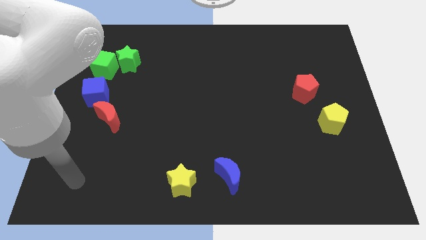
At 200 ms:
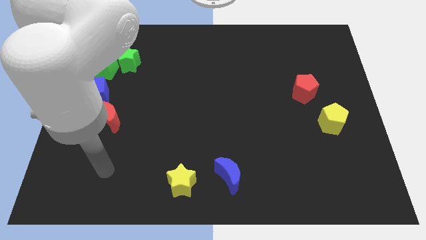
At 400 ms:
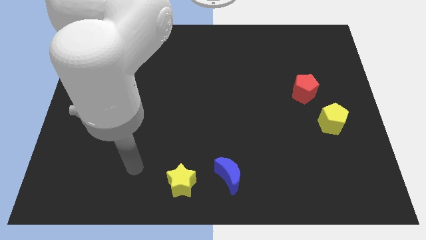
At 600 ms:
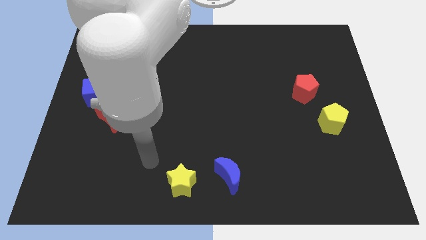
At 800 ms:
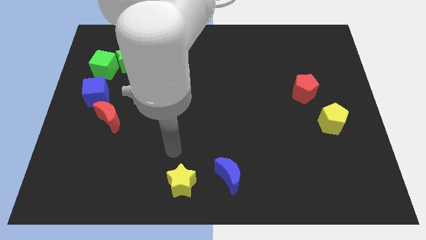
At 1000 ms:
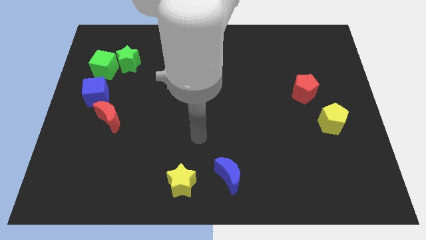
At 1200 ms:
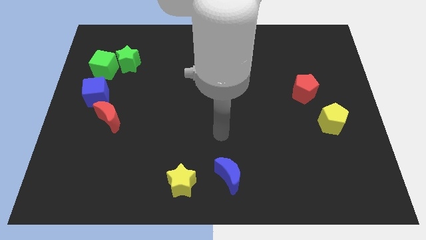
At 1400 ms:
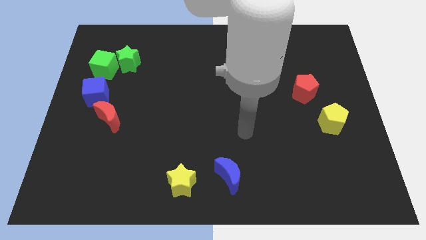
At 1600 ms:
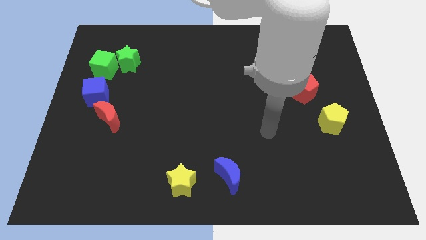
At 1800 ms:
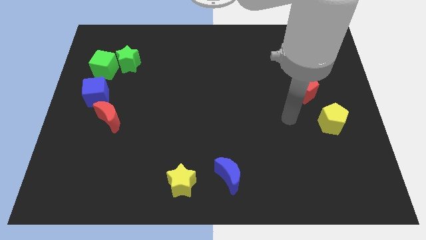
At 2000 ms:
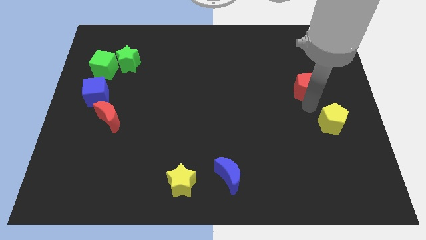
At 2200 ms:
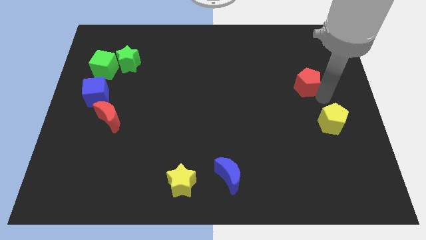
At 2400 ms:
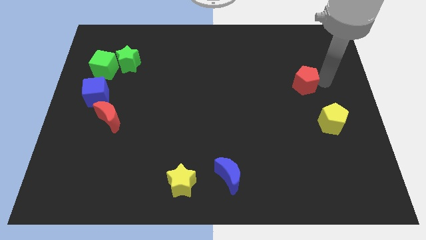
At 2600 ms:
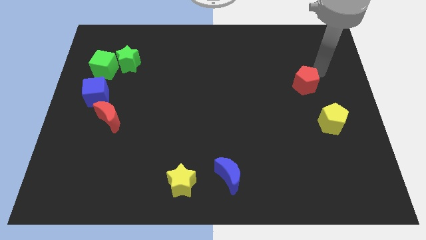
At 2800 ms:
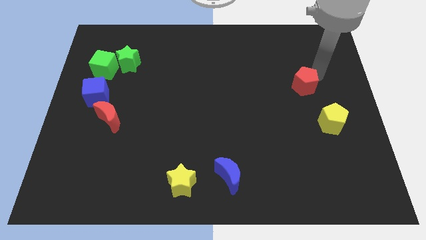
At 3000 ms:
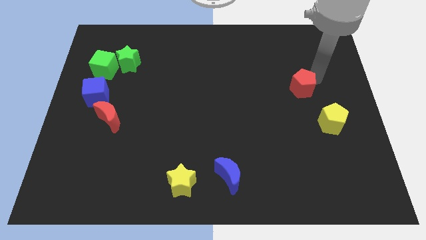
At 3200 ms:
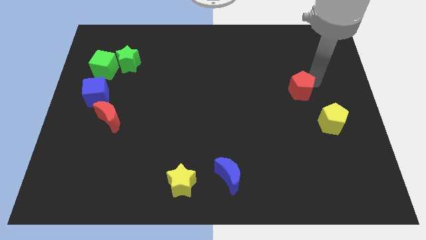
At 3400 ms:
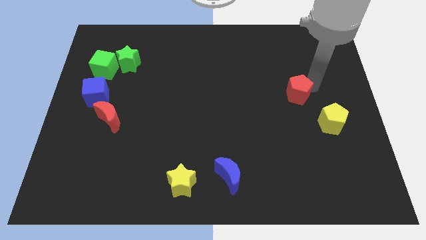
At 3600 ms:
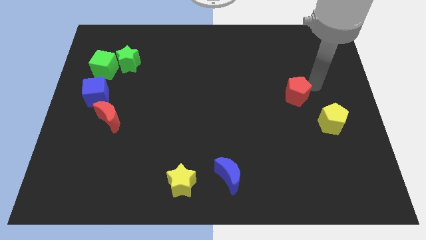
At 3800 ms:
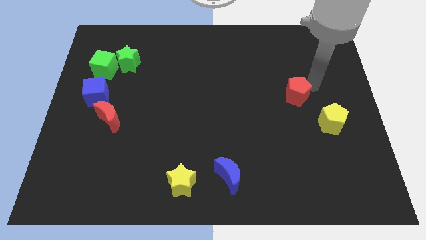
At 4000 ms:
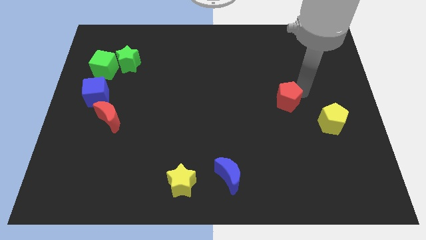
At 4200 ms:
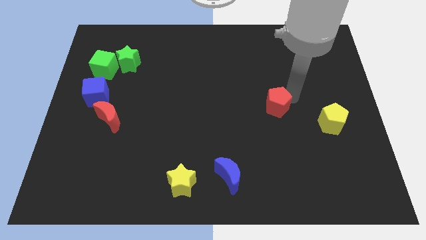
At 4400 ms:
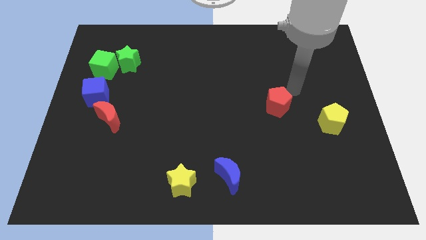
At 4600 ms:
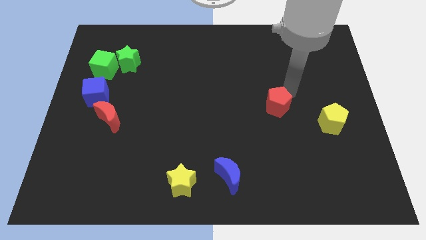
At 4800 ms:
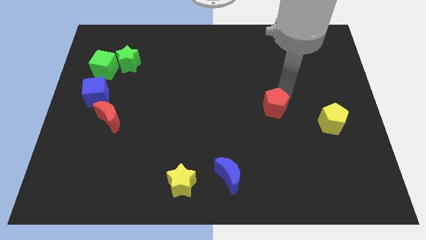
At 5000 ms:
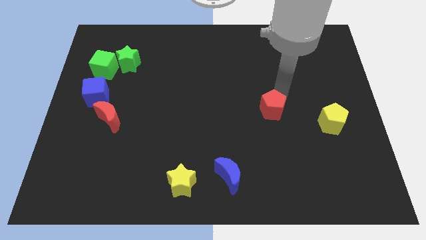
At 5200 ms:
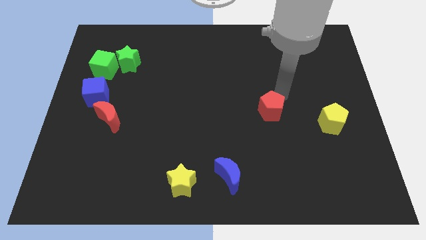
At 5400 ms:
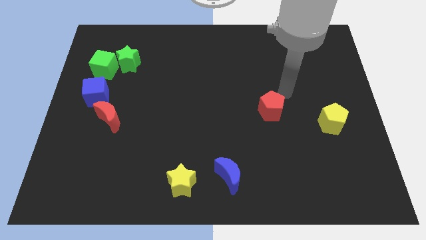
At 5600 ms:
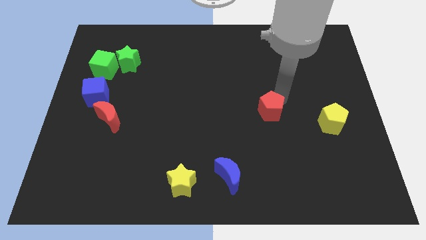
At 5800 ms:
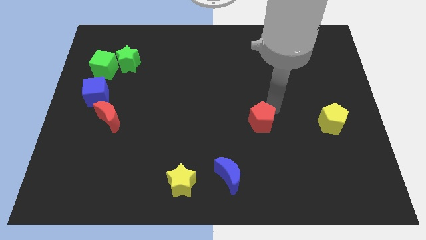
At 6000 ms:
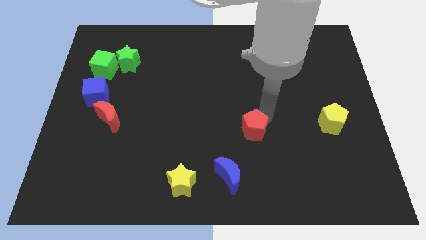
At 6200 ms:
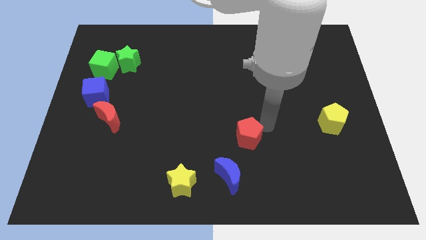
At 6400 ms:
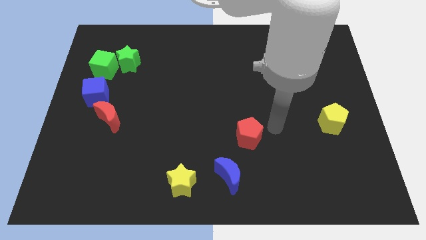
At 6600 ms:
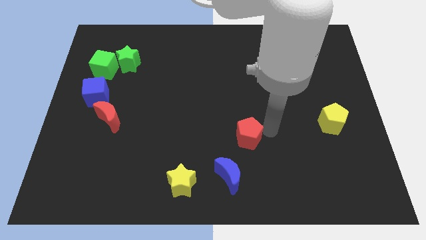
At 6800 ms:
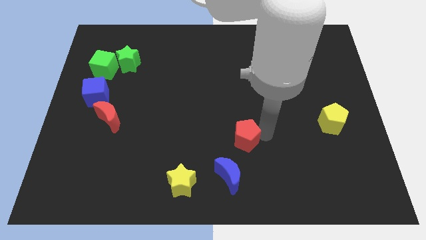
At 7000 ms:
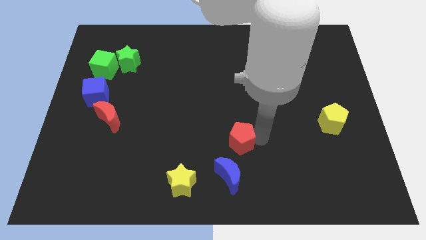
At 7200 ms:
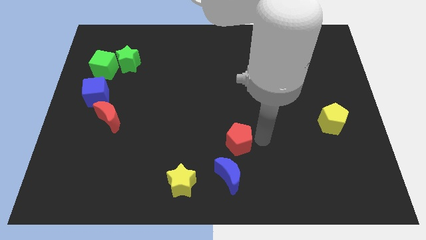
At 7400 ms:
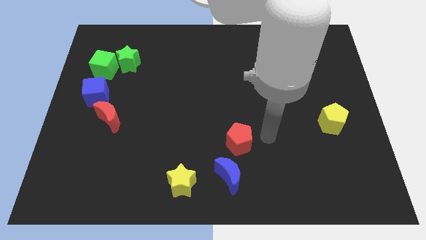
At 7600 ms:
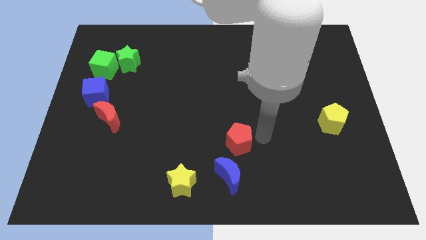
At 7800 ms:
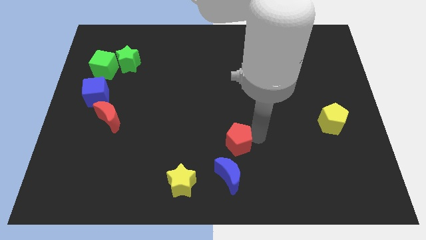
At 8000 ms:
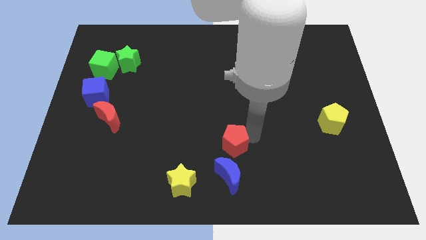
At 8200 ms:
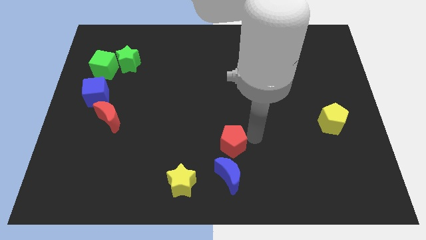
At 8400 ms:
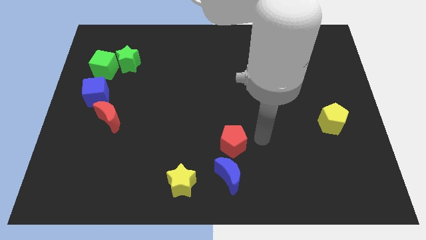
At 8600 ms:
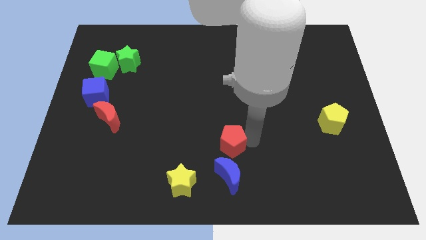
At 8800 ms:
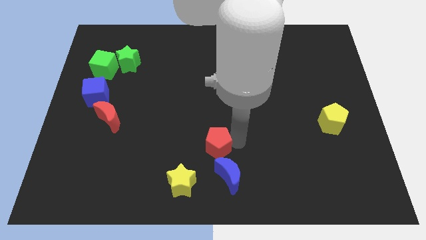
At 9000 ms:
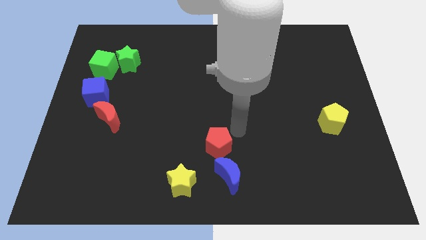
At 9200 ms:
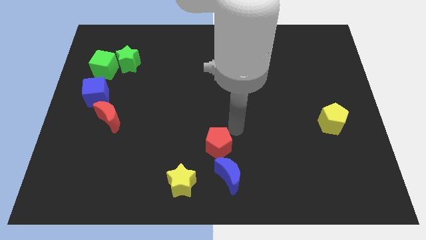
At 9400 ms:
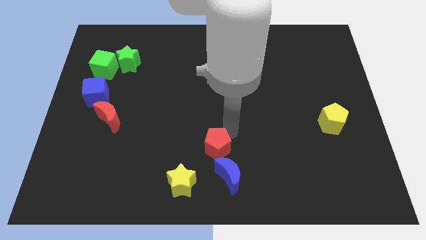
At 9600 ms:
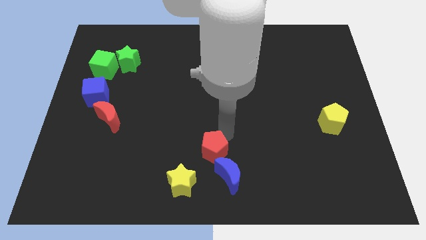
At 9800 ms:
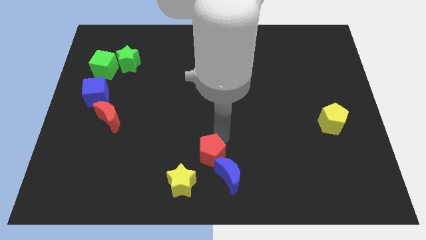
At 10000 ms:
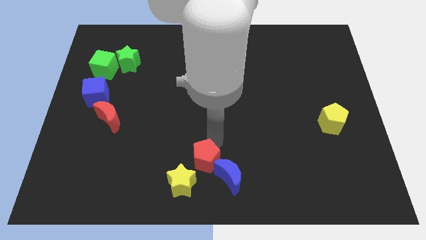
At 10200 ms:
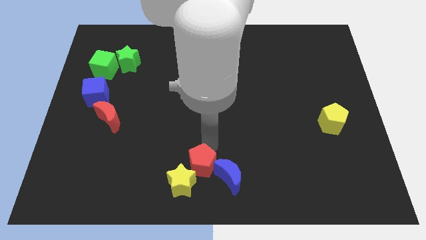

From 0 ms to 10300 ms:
push the red pentagon to the yellow star

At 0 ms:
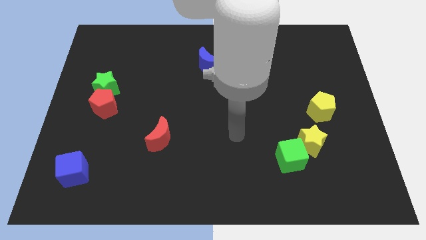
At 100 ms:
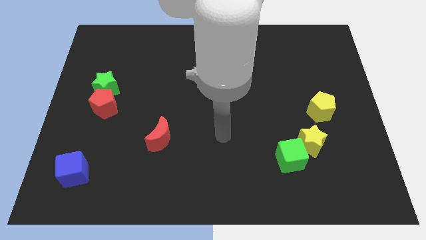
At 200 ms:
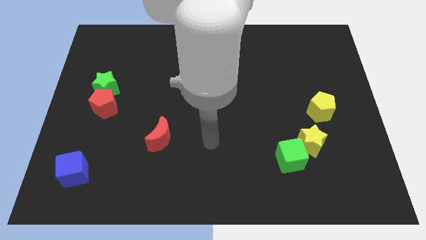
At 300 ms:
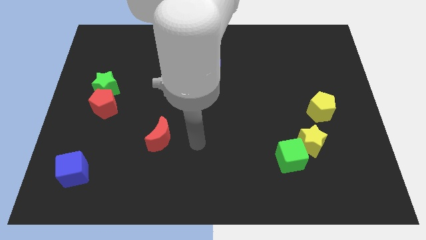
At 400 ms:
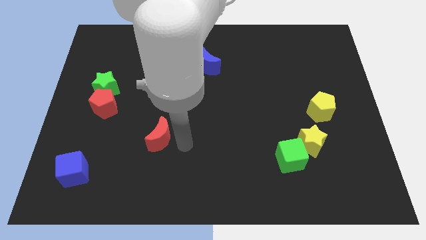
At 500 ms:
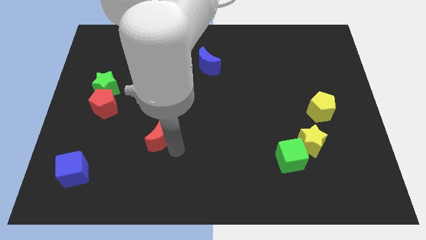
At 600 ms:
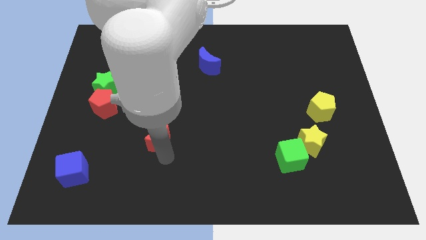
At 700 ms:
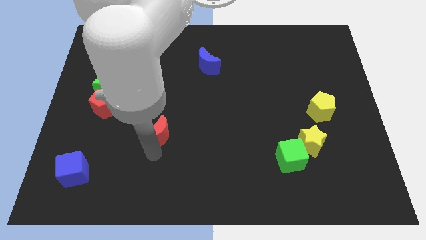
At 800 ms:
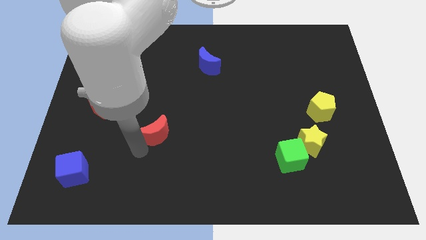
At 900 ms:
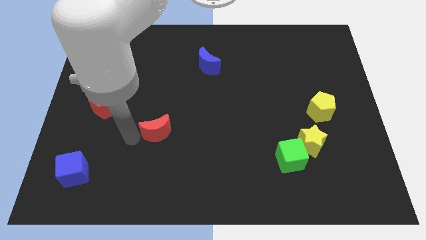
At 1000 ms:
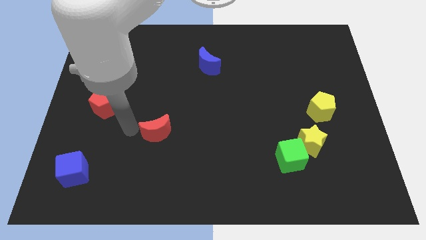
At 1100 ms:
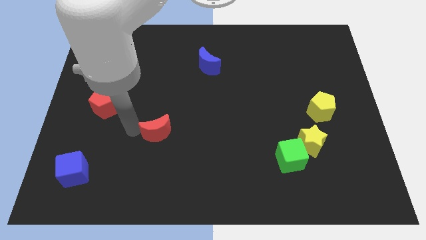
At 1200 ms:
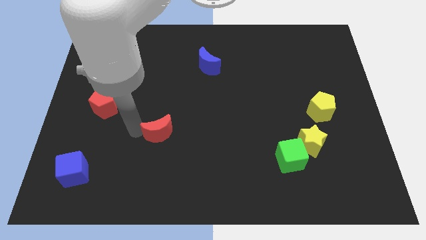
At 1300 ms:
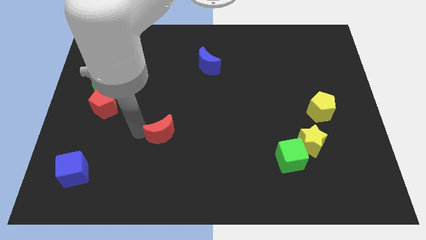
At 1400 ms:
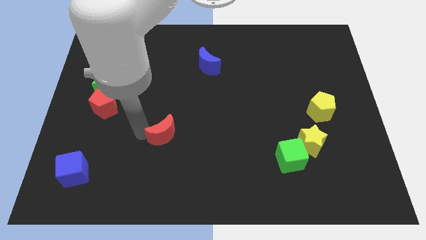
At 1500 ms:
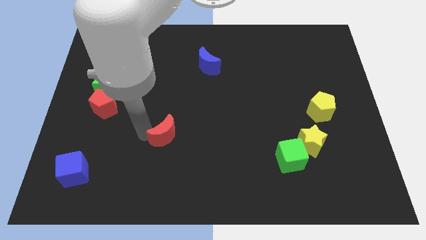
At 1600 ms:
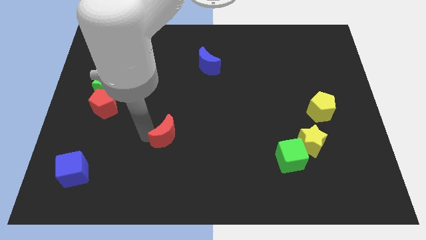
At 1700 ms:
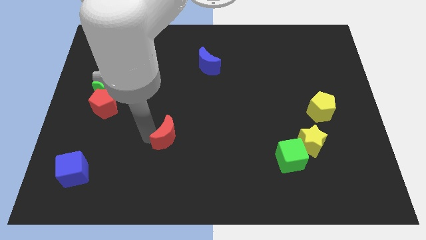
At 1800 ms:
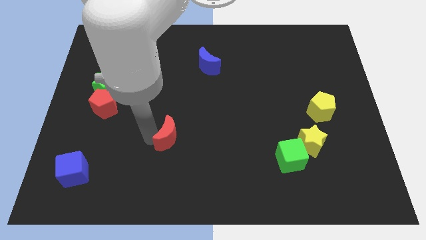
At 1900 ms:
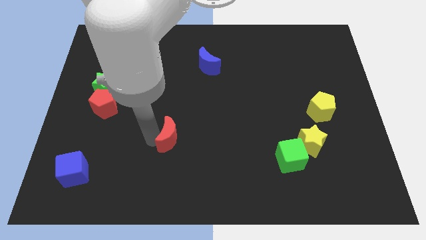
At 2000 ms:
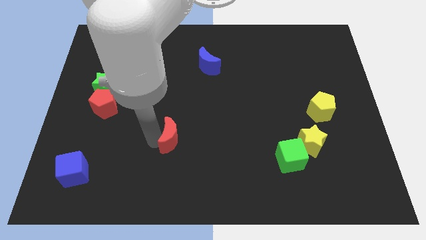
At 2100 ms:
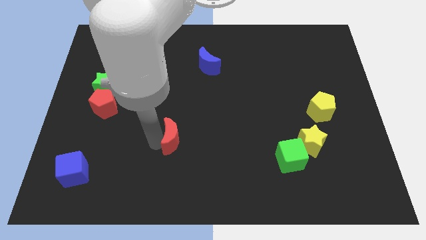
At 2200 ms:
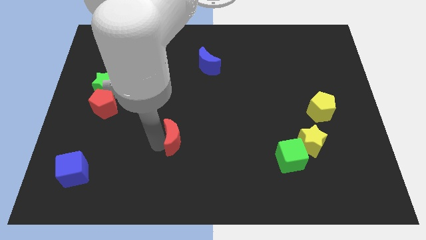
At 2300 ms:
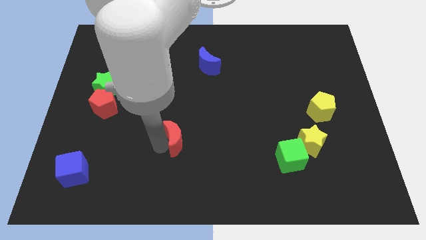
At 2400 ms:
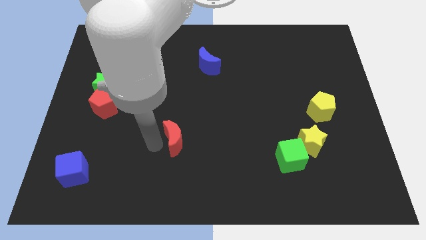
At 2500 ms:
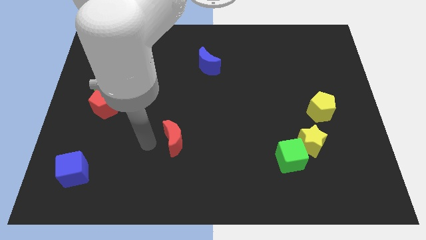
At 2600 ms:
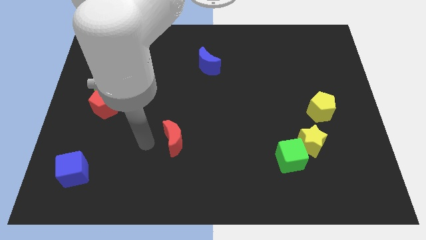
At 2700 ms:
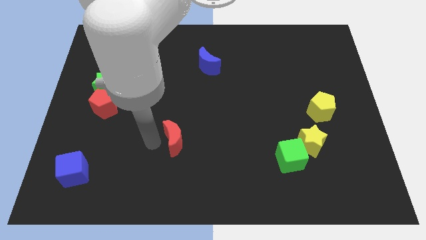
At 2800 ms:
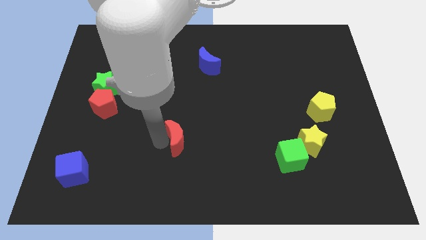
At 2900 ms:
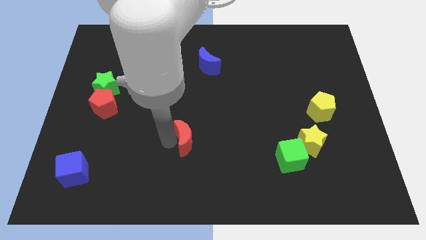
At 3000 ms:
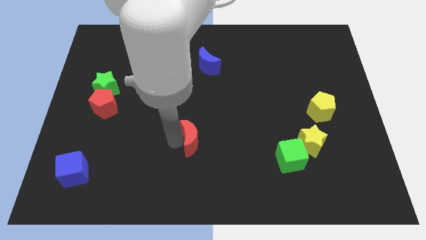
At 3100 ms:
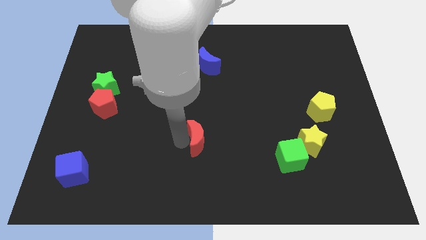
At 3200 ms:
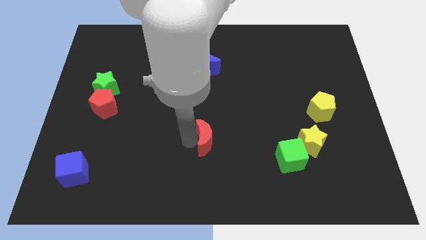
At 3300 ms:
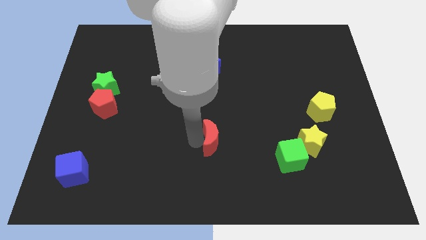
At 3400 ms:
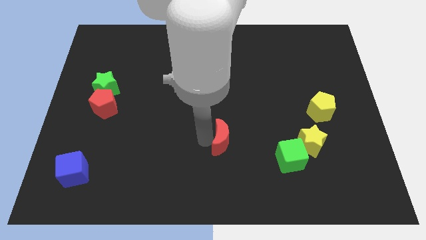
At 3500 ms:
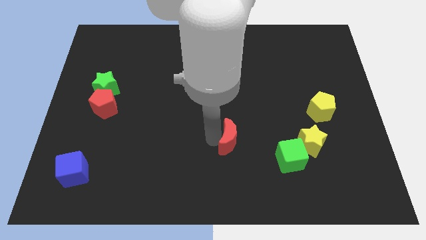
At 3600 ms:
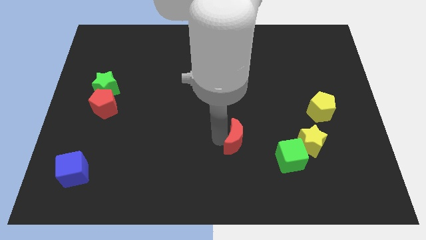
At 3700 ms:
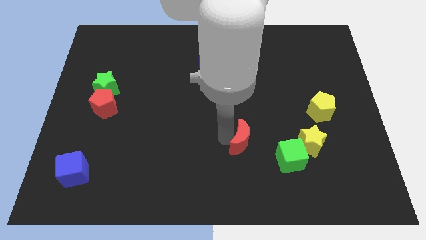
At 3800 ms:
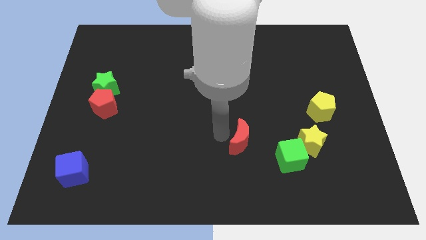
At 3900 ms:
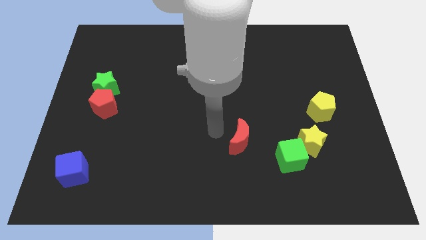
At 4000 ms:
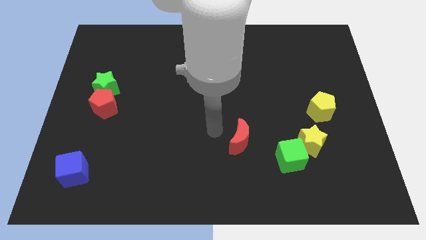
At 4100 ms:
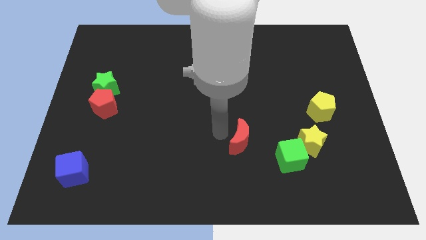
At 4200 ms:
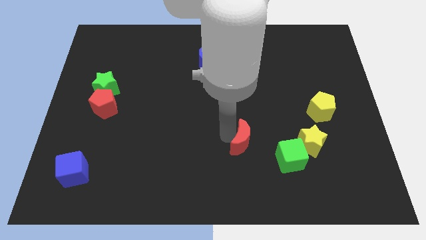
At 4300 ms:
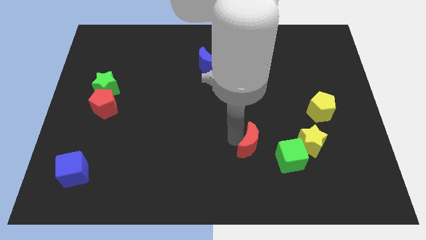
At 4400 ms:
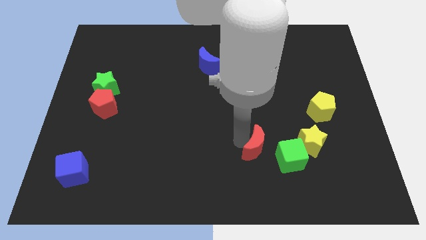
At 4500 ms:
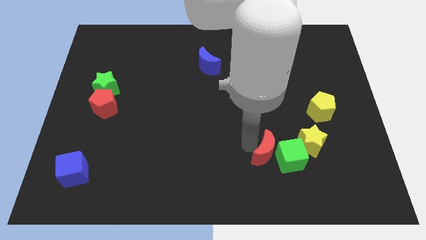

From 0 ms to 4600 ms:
move the red moon towards the green cube
